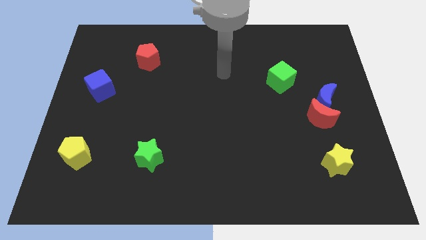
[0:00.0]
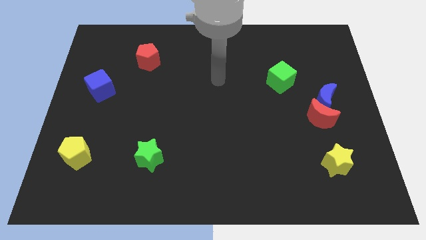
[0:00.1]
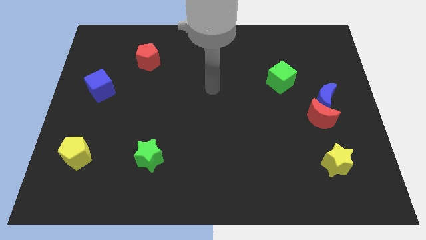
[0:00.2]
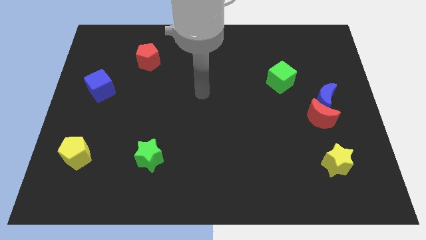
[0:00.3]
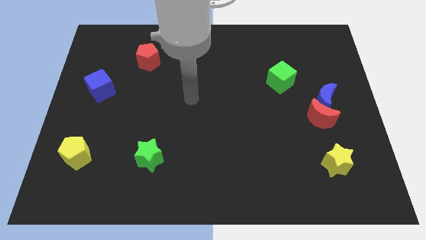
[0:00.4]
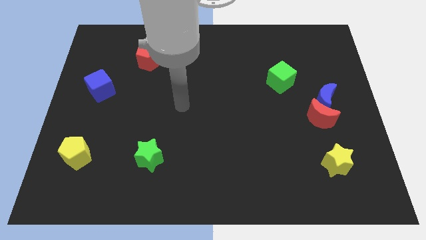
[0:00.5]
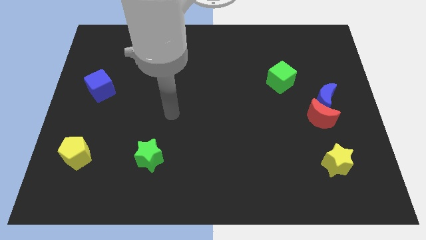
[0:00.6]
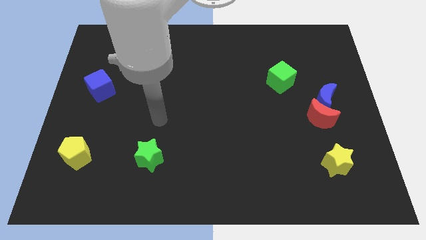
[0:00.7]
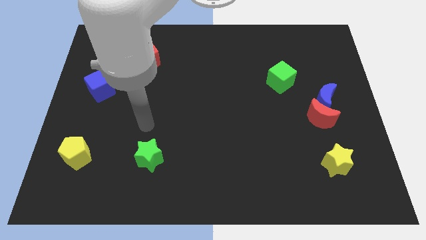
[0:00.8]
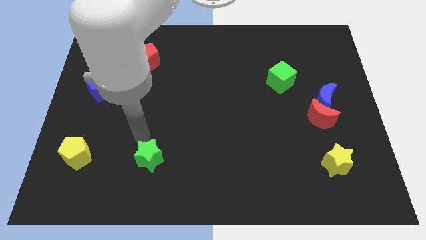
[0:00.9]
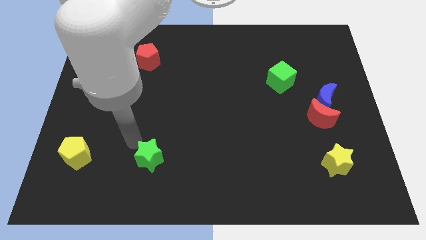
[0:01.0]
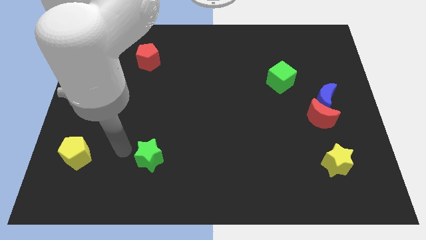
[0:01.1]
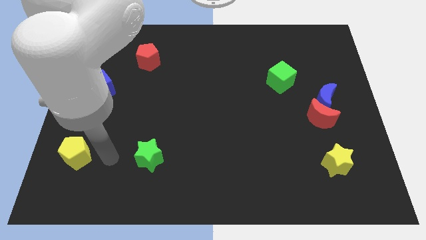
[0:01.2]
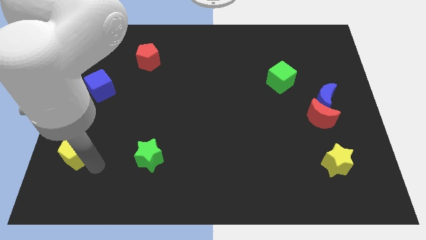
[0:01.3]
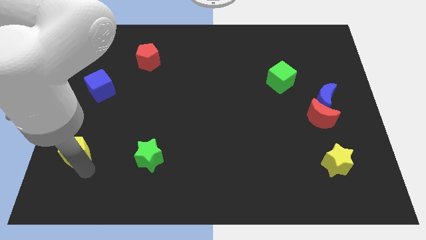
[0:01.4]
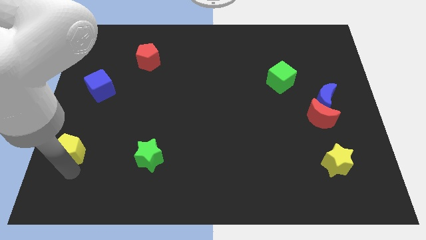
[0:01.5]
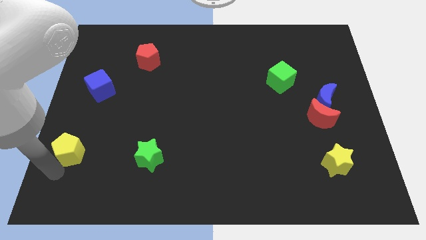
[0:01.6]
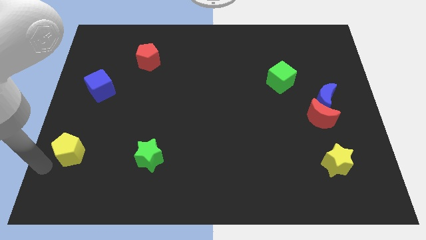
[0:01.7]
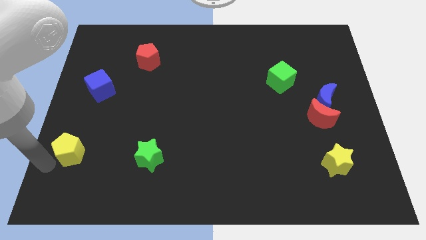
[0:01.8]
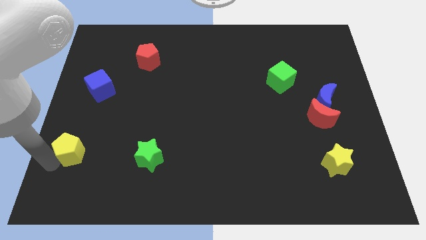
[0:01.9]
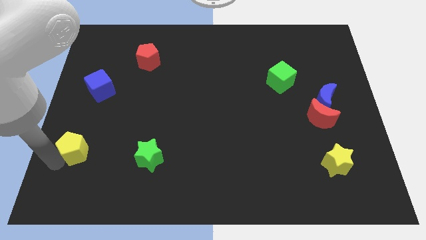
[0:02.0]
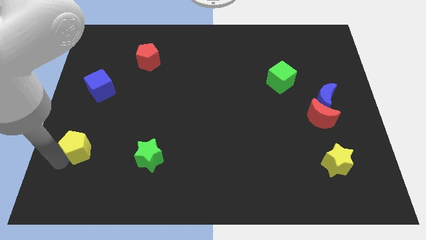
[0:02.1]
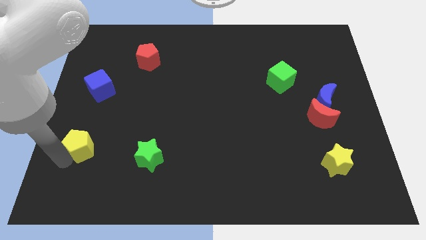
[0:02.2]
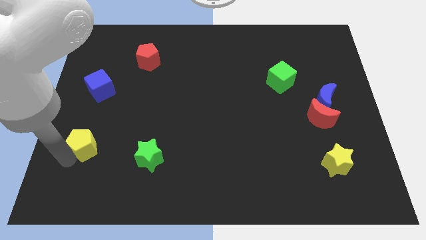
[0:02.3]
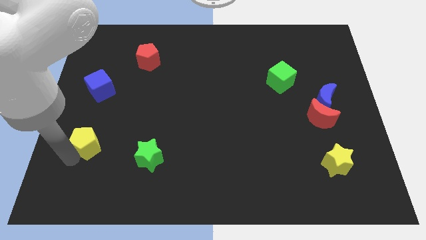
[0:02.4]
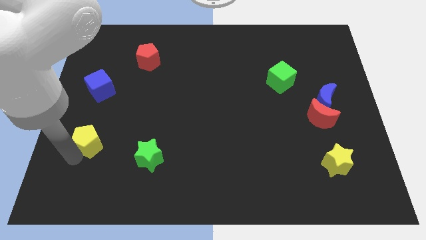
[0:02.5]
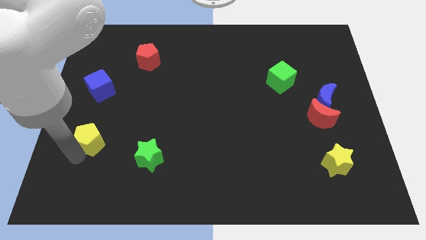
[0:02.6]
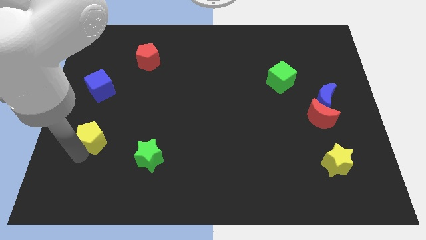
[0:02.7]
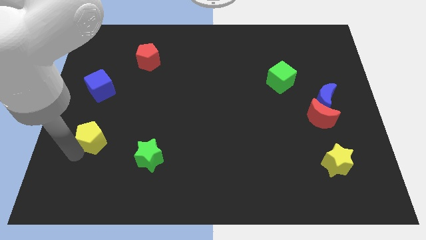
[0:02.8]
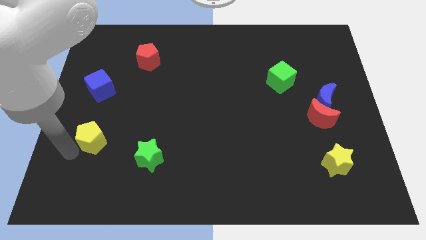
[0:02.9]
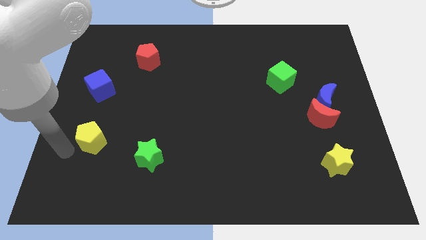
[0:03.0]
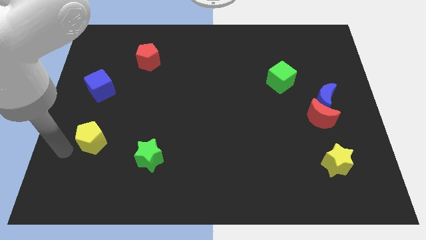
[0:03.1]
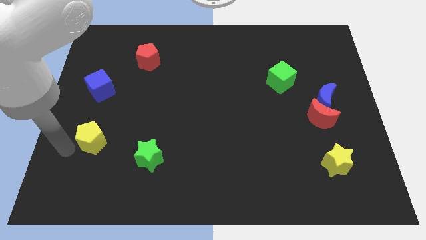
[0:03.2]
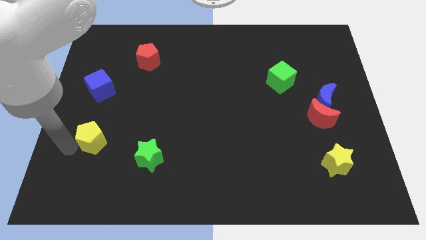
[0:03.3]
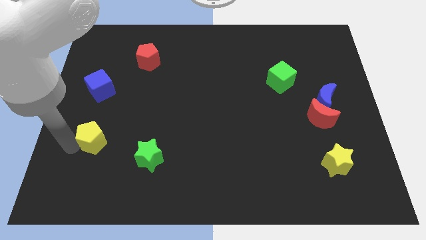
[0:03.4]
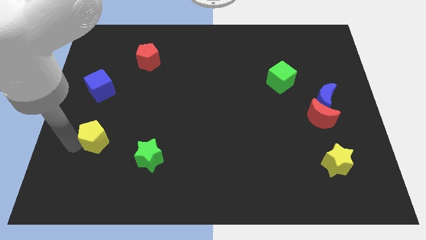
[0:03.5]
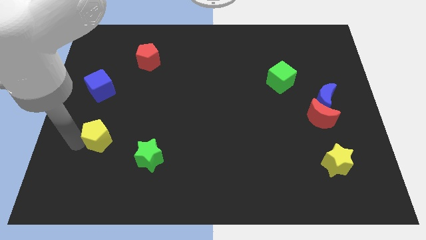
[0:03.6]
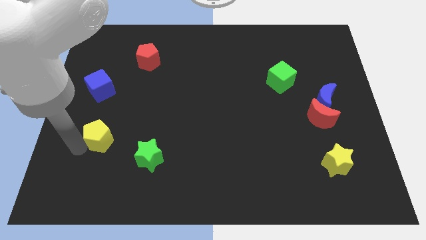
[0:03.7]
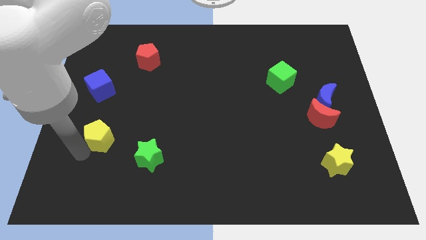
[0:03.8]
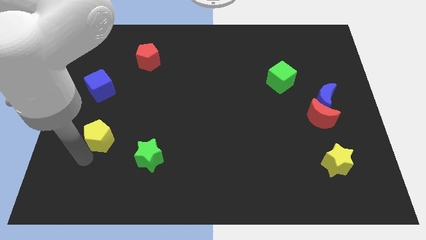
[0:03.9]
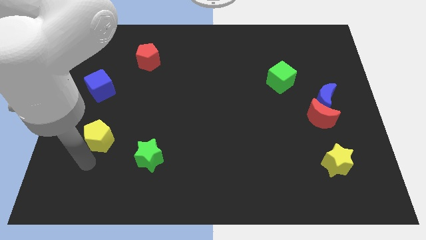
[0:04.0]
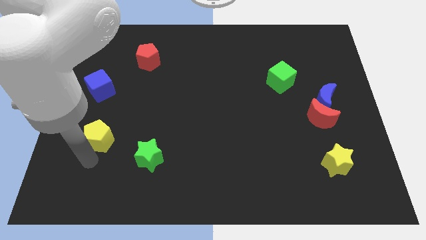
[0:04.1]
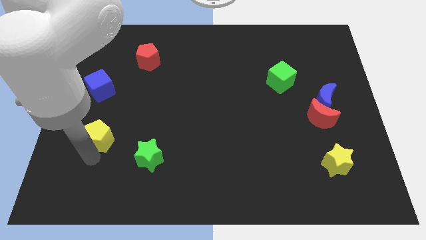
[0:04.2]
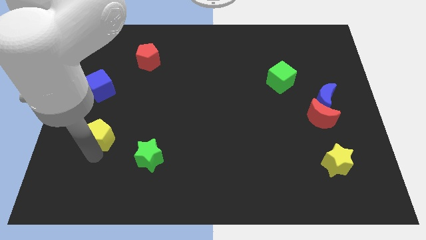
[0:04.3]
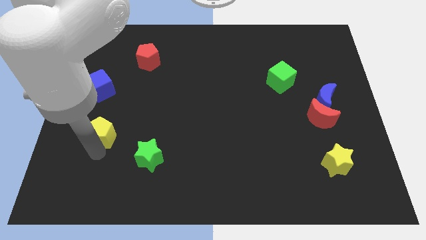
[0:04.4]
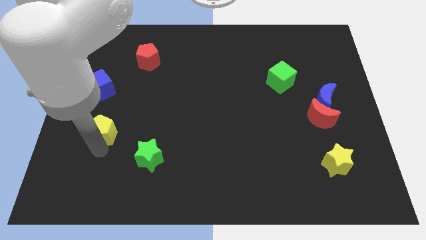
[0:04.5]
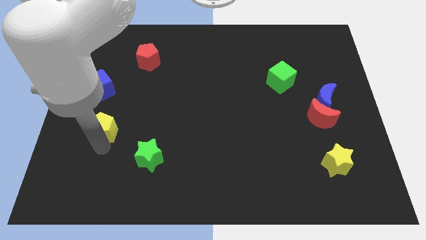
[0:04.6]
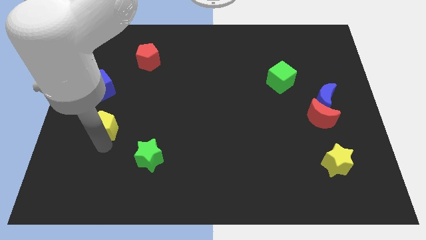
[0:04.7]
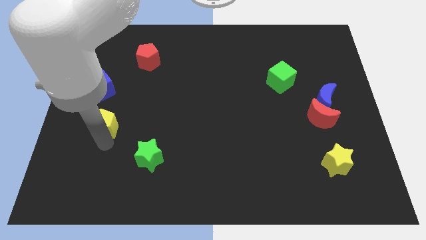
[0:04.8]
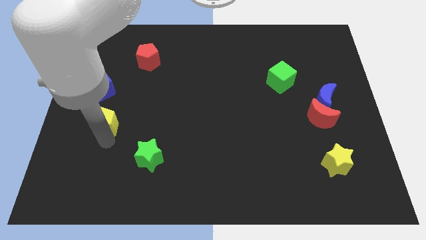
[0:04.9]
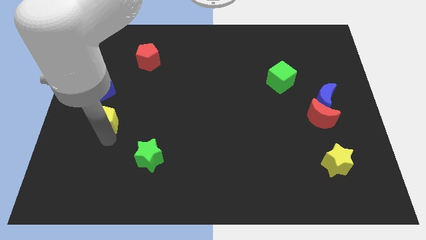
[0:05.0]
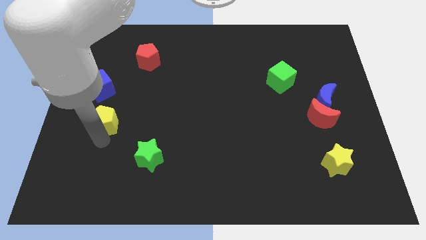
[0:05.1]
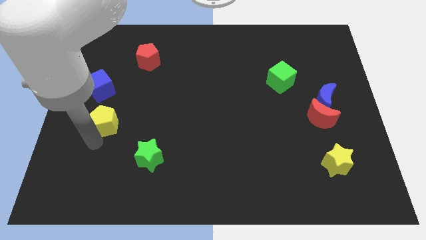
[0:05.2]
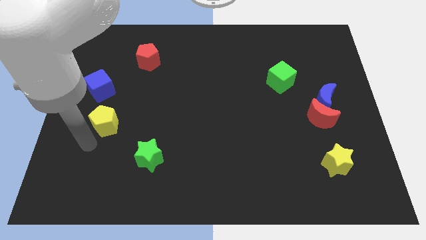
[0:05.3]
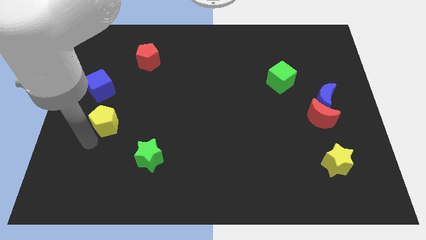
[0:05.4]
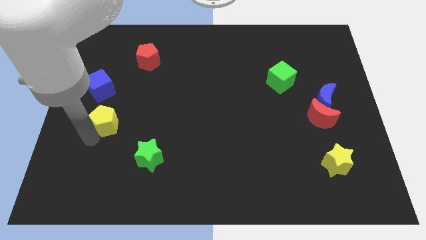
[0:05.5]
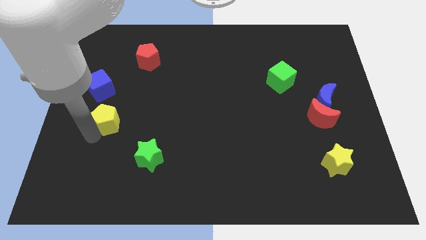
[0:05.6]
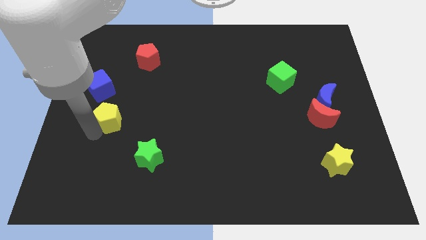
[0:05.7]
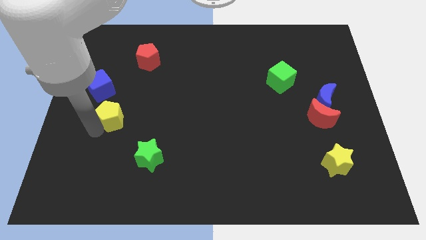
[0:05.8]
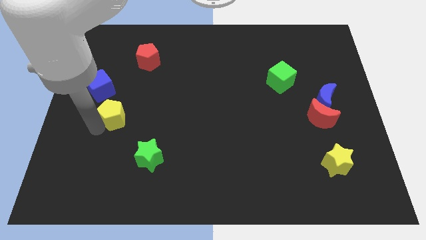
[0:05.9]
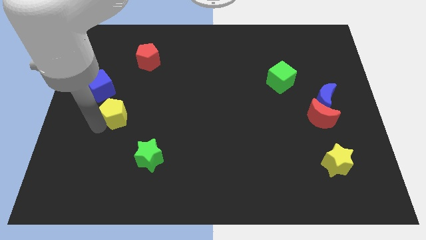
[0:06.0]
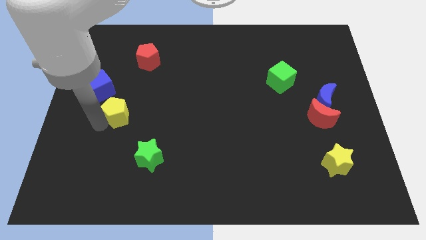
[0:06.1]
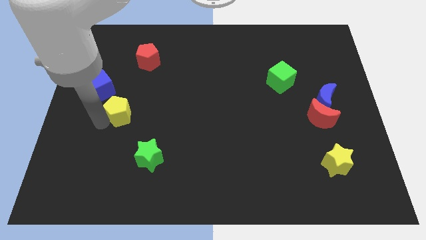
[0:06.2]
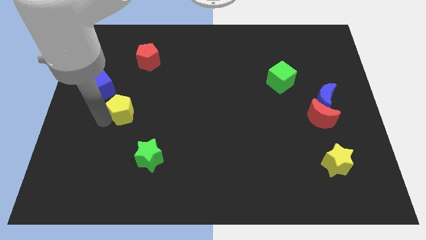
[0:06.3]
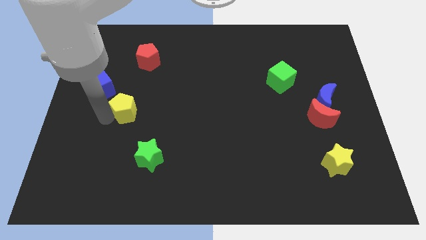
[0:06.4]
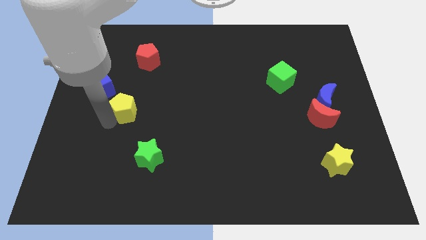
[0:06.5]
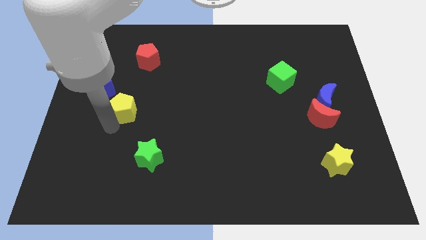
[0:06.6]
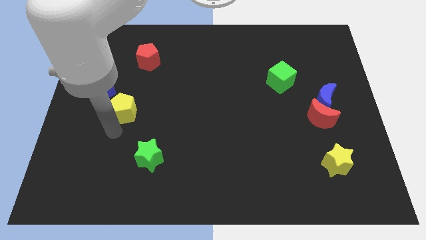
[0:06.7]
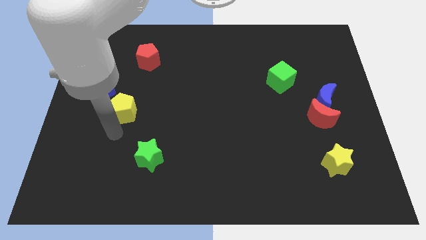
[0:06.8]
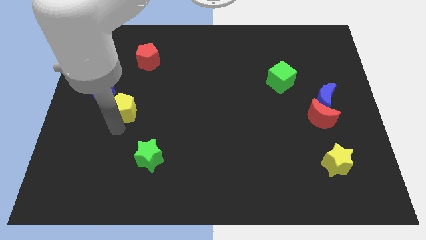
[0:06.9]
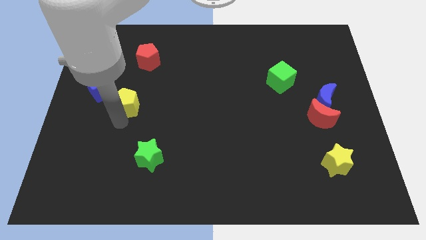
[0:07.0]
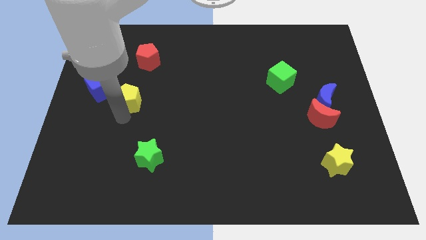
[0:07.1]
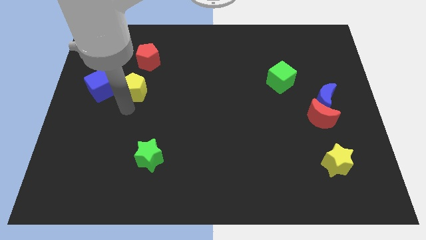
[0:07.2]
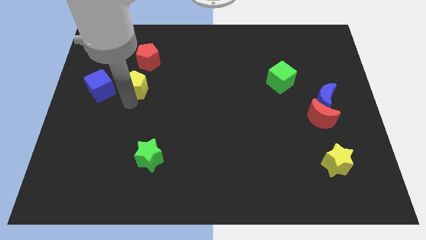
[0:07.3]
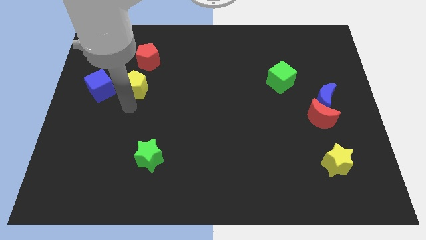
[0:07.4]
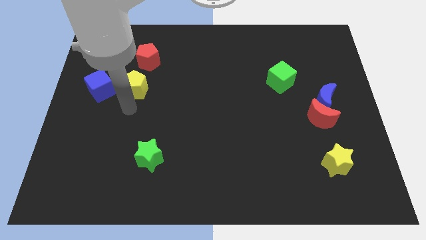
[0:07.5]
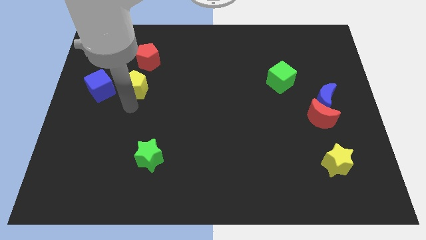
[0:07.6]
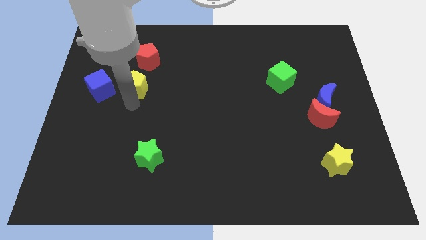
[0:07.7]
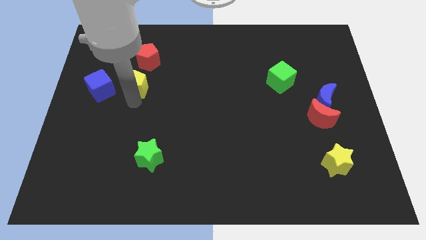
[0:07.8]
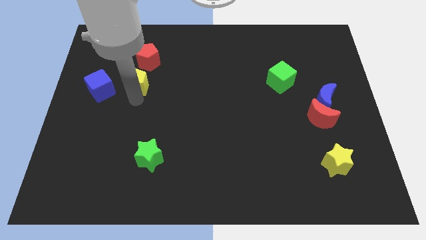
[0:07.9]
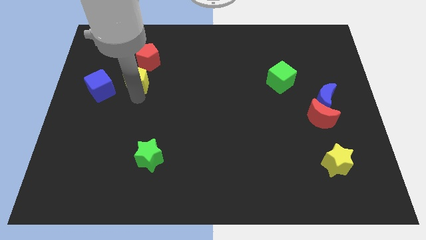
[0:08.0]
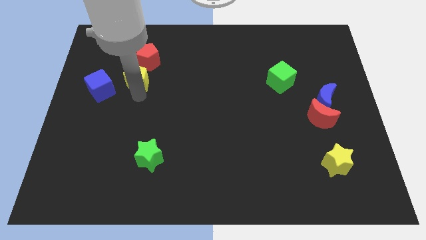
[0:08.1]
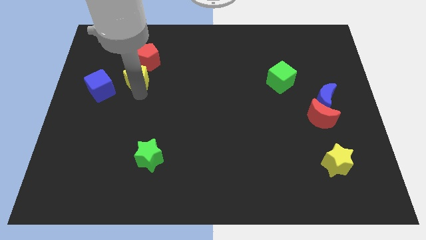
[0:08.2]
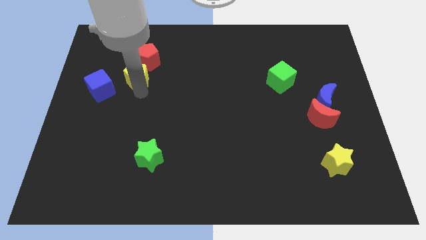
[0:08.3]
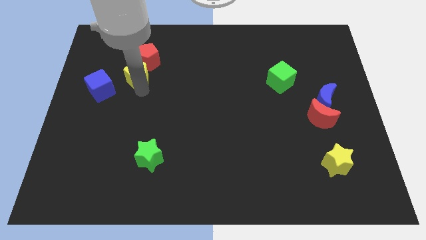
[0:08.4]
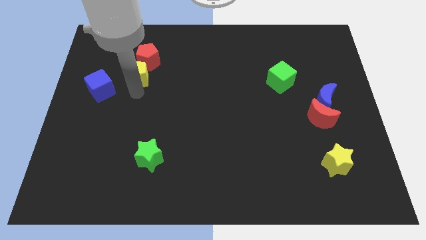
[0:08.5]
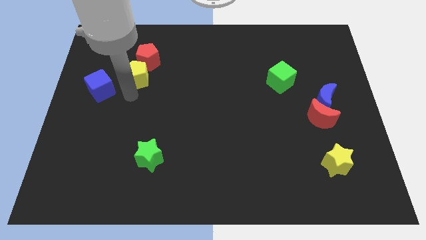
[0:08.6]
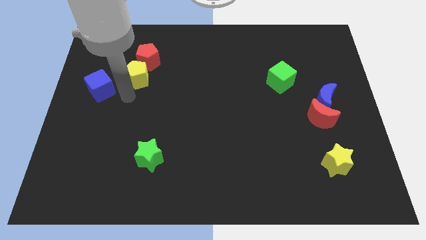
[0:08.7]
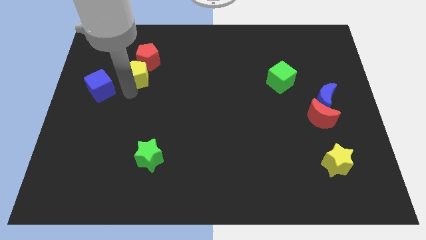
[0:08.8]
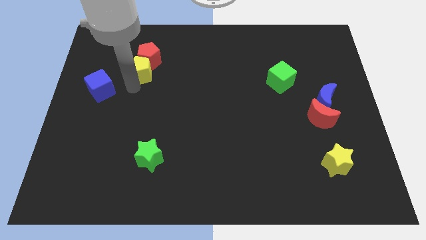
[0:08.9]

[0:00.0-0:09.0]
put the yellow pentagon close to the red pentagon
